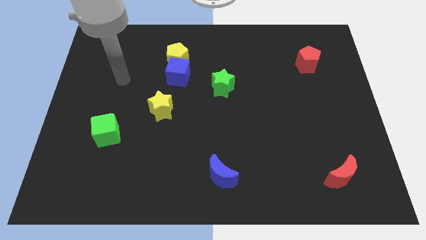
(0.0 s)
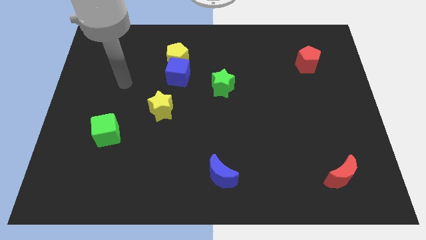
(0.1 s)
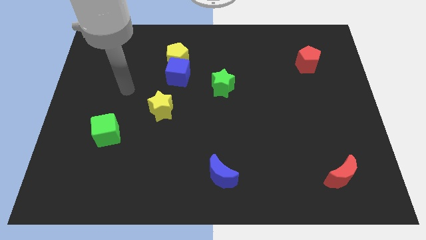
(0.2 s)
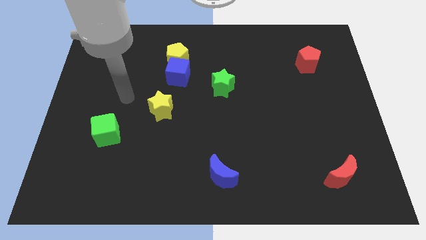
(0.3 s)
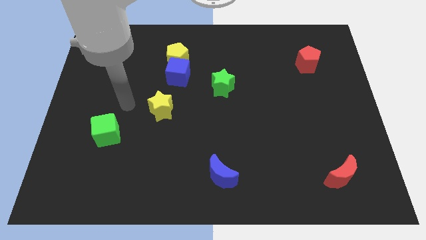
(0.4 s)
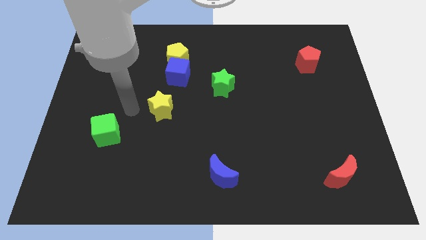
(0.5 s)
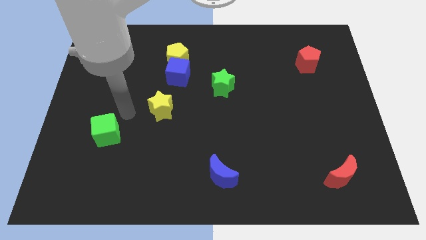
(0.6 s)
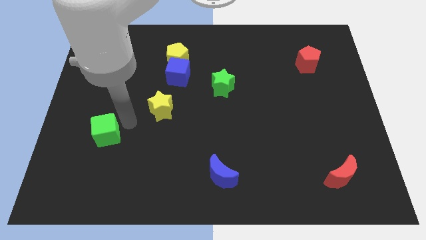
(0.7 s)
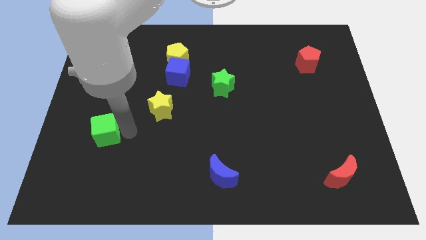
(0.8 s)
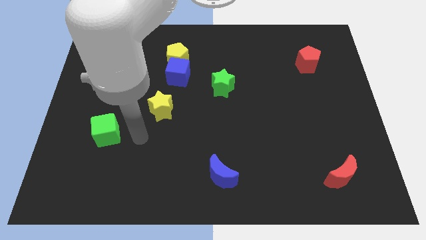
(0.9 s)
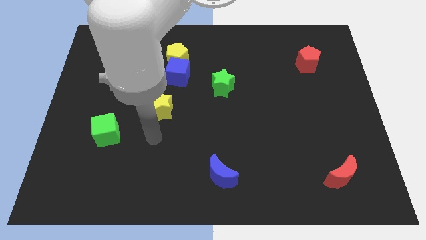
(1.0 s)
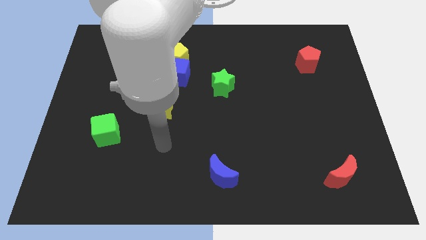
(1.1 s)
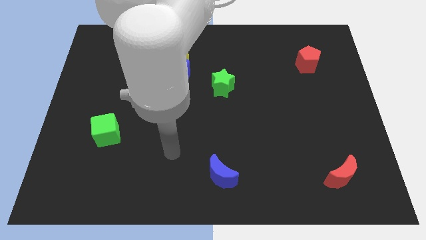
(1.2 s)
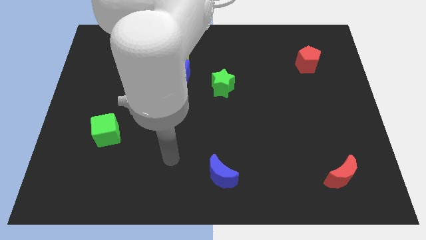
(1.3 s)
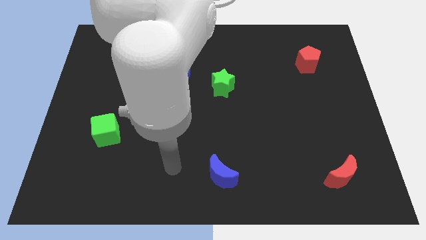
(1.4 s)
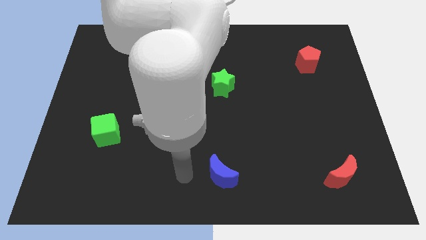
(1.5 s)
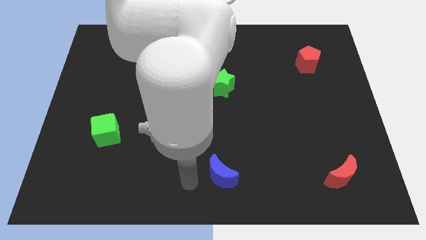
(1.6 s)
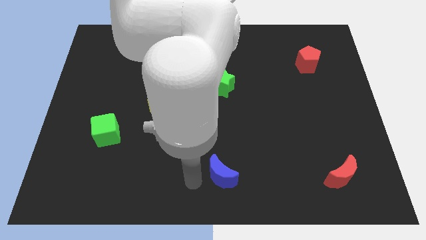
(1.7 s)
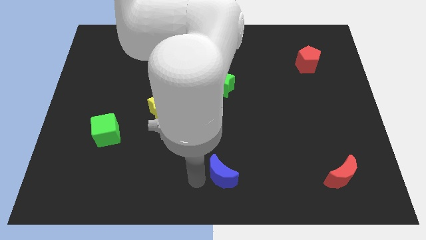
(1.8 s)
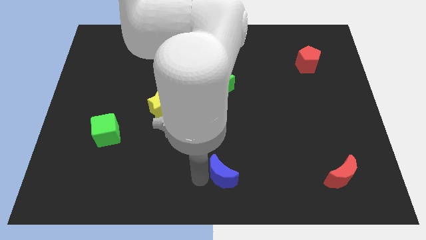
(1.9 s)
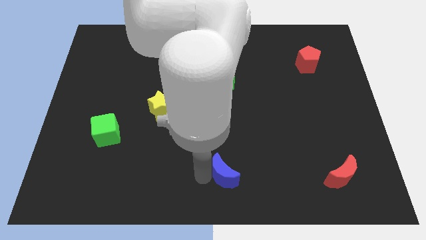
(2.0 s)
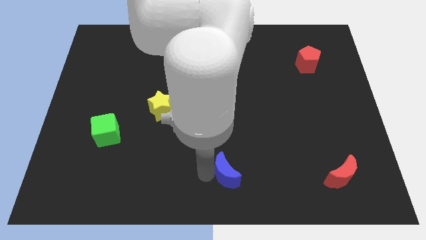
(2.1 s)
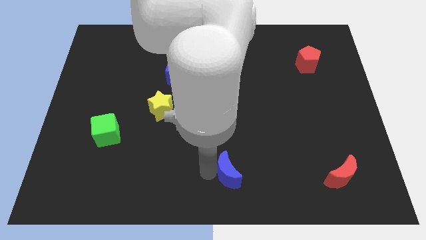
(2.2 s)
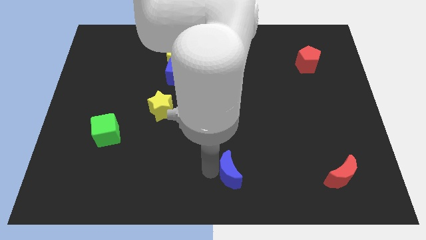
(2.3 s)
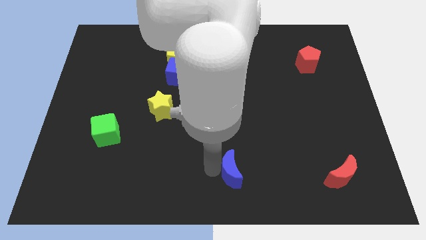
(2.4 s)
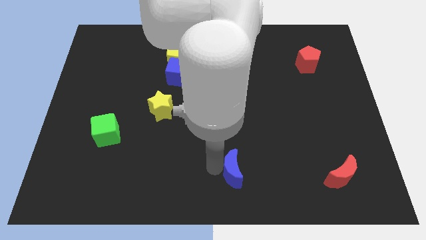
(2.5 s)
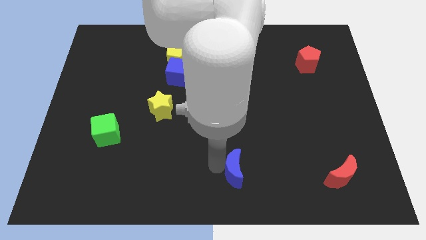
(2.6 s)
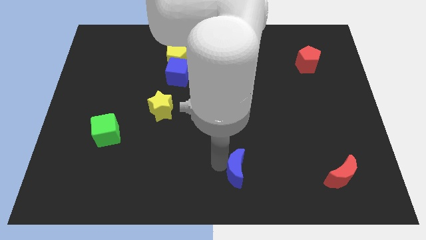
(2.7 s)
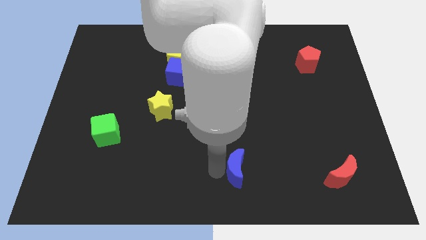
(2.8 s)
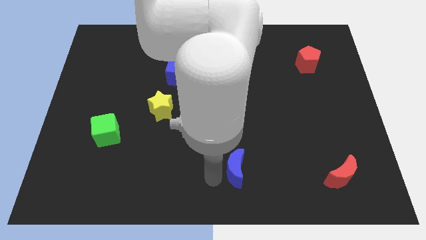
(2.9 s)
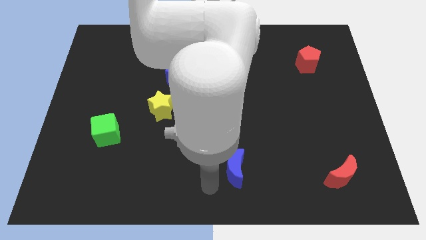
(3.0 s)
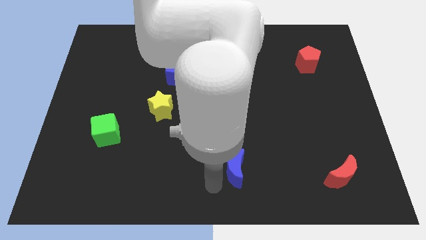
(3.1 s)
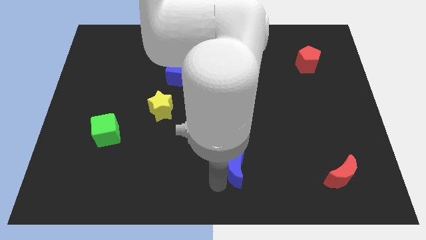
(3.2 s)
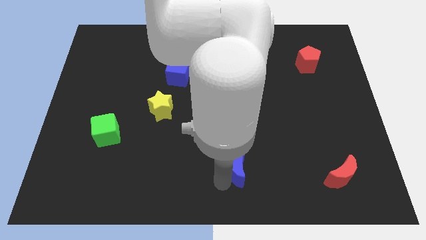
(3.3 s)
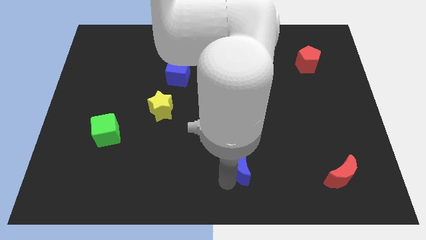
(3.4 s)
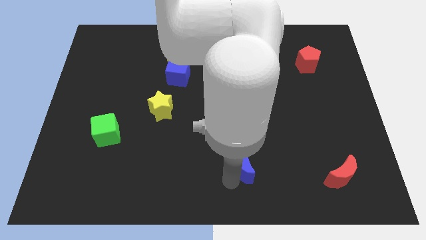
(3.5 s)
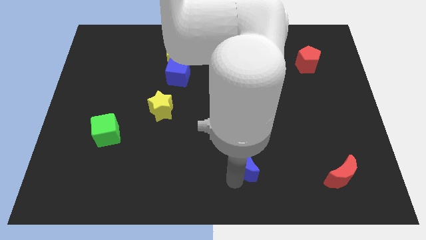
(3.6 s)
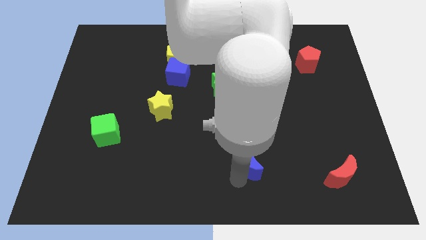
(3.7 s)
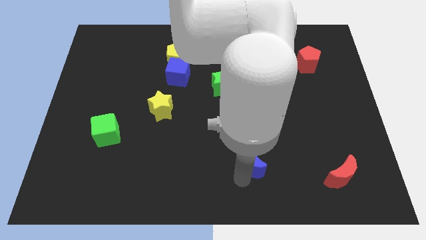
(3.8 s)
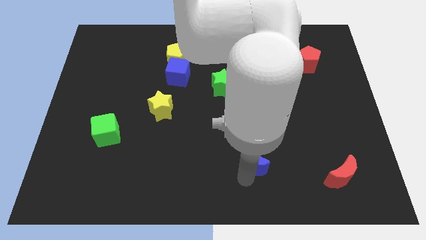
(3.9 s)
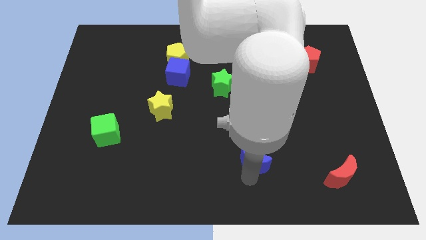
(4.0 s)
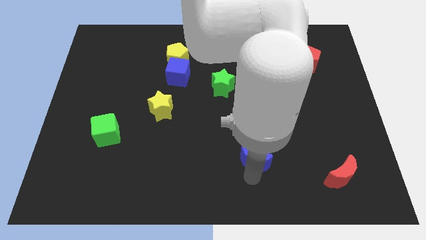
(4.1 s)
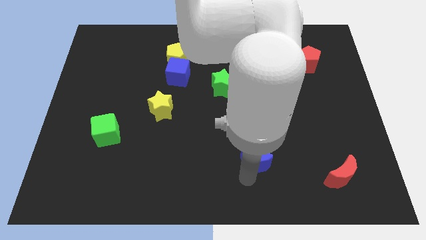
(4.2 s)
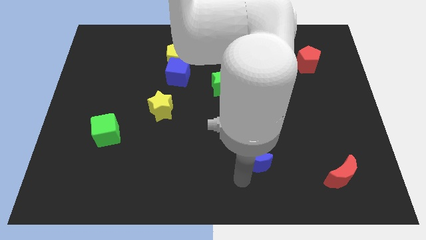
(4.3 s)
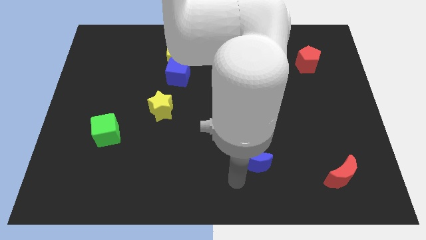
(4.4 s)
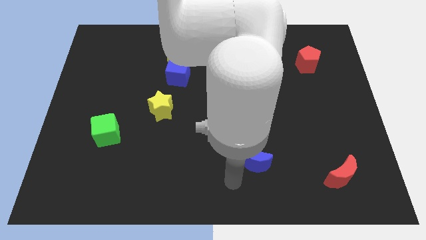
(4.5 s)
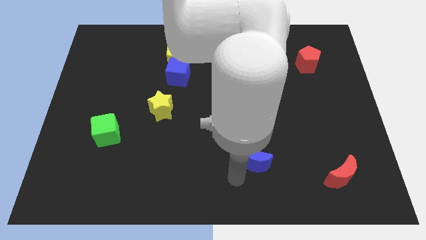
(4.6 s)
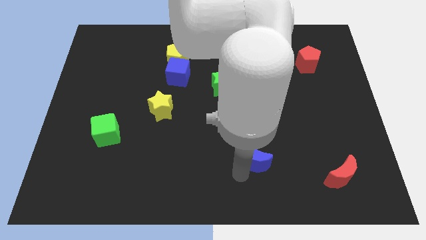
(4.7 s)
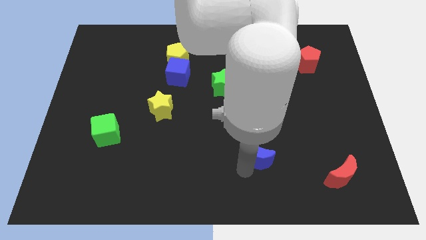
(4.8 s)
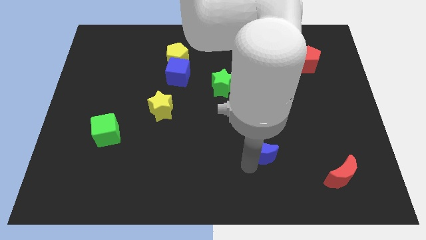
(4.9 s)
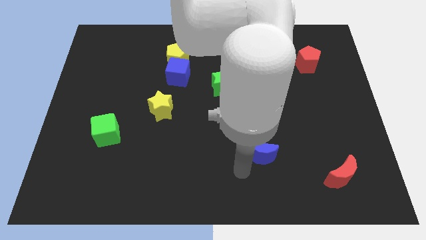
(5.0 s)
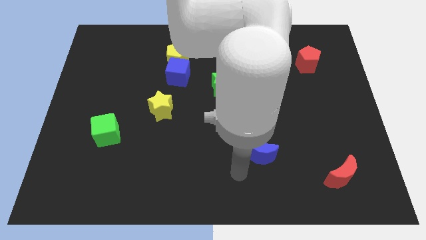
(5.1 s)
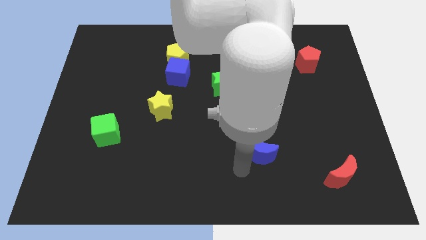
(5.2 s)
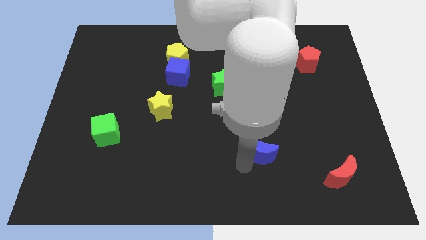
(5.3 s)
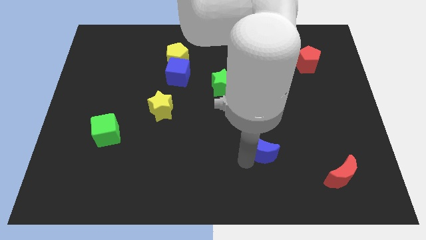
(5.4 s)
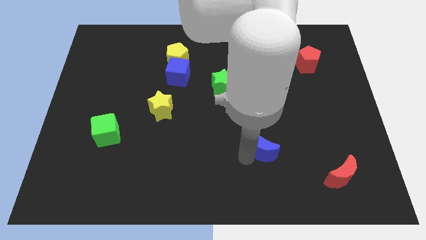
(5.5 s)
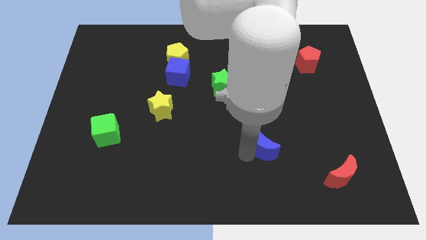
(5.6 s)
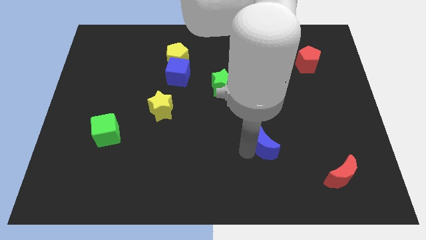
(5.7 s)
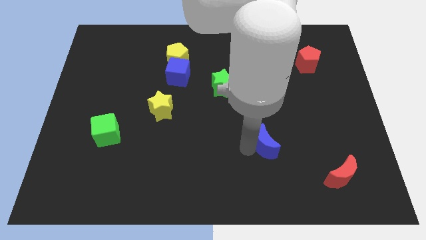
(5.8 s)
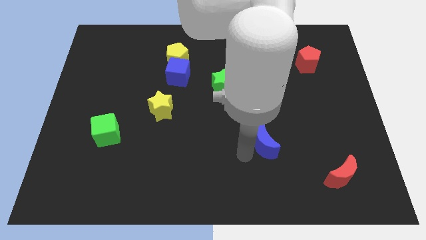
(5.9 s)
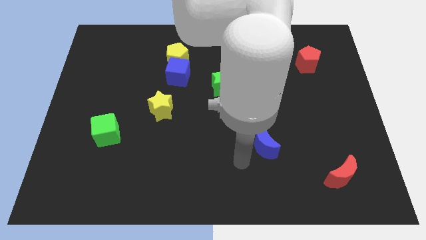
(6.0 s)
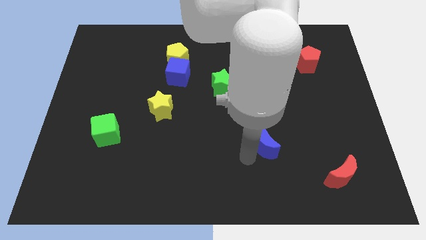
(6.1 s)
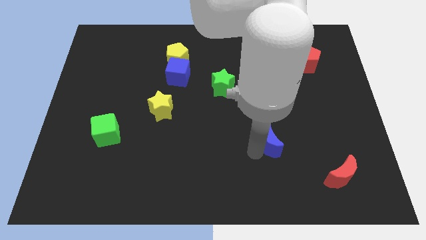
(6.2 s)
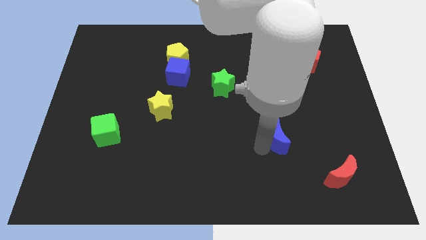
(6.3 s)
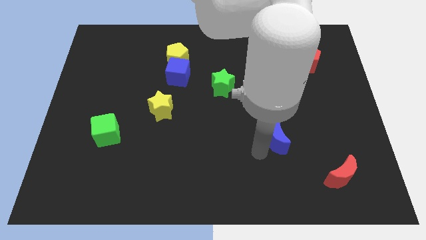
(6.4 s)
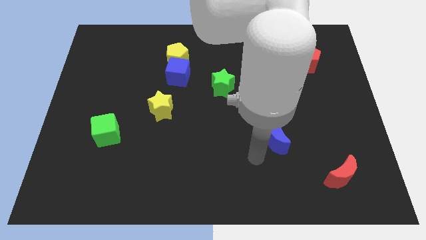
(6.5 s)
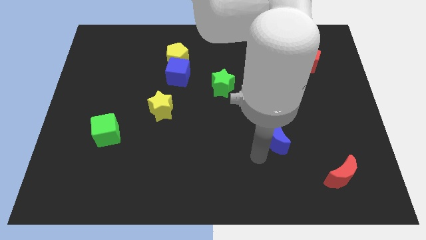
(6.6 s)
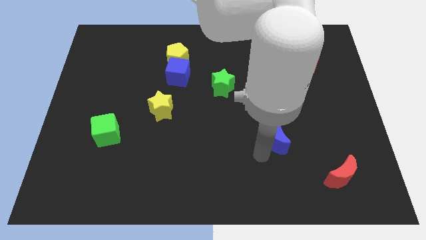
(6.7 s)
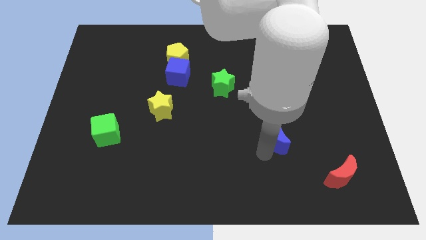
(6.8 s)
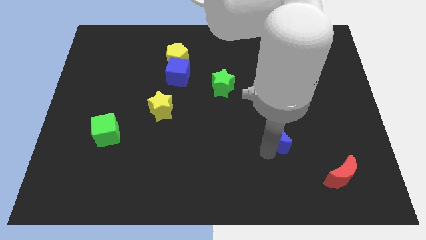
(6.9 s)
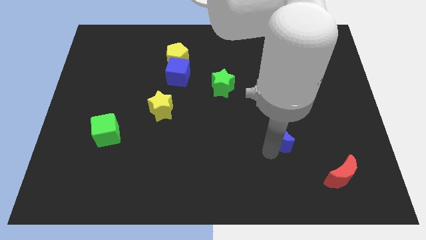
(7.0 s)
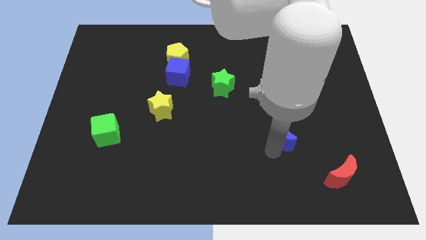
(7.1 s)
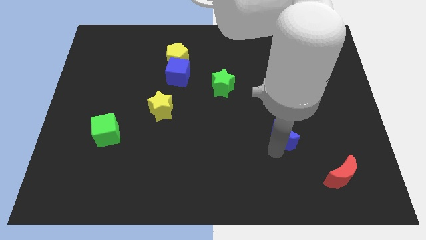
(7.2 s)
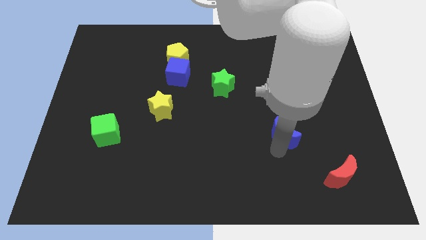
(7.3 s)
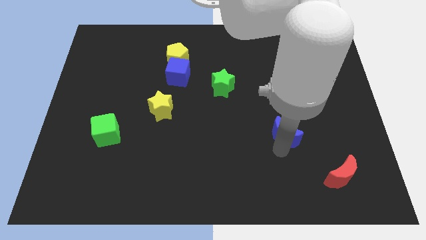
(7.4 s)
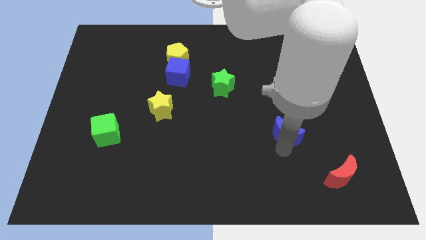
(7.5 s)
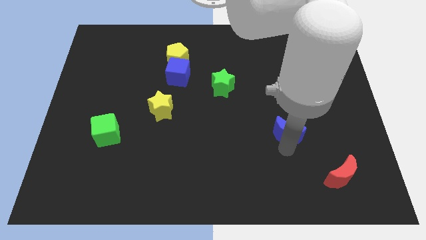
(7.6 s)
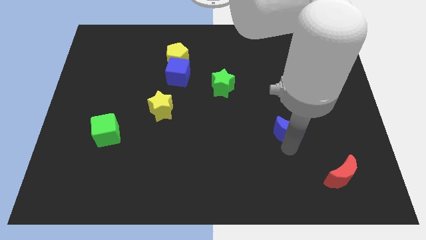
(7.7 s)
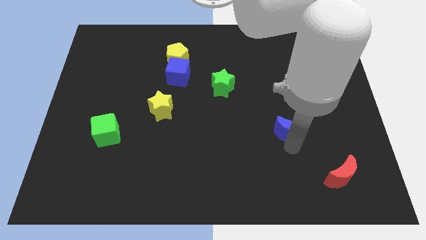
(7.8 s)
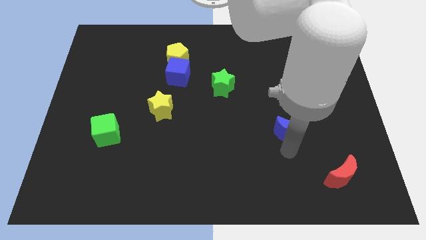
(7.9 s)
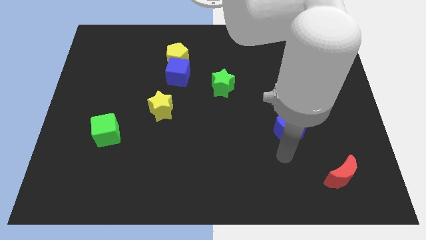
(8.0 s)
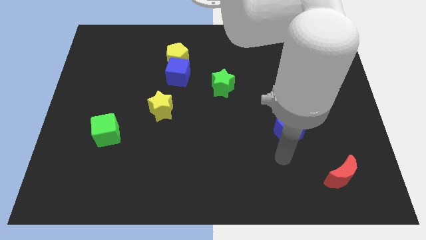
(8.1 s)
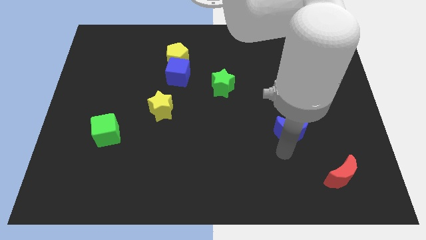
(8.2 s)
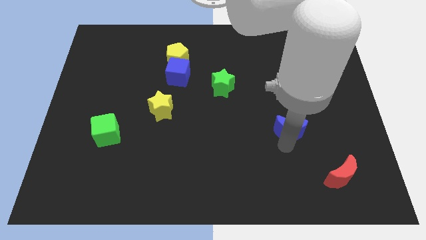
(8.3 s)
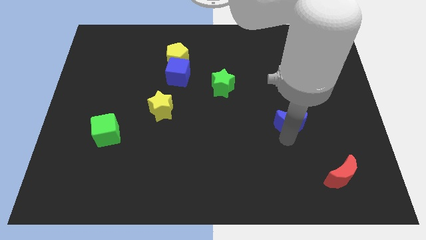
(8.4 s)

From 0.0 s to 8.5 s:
move the blue moon diagonally upwards and to the right
